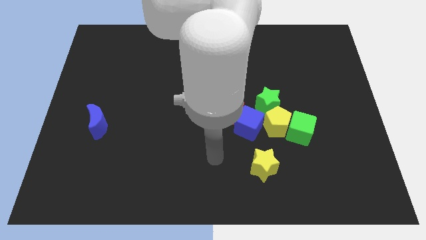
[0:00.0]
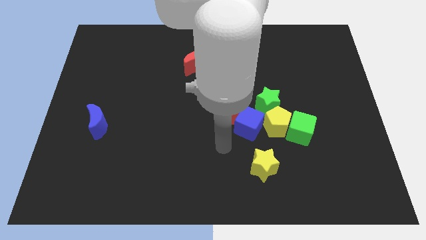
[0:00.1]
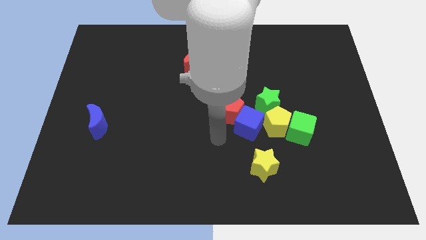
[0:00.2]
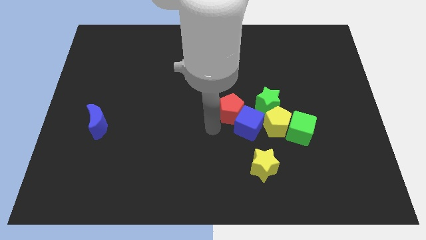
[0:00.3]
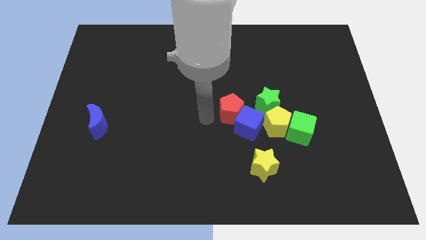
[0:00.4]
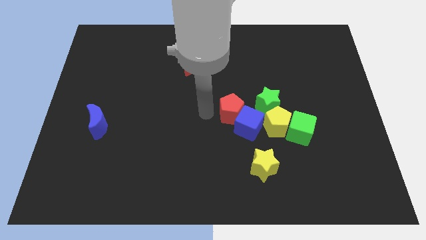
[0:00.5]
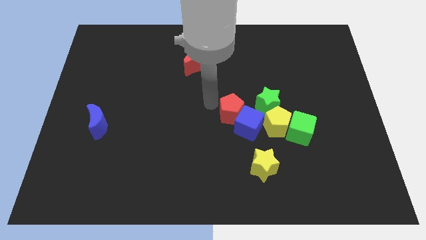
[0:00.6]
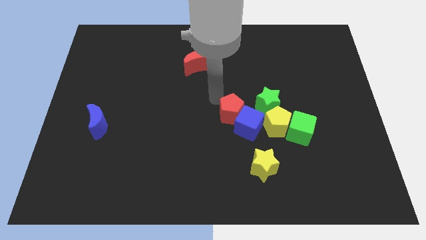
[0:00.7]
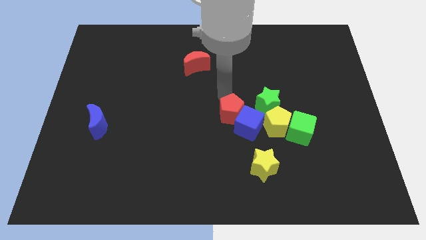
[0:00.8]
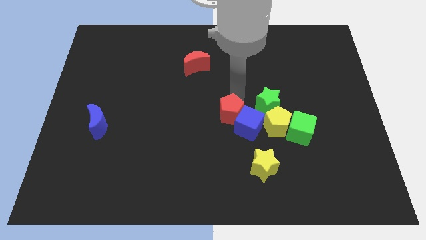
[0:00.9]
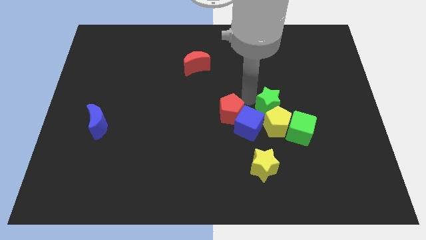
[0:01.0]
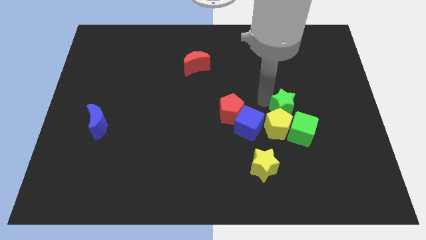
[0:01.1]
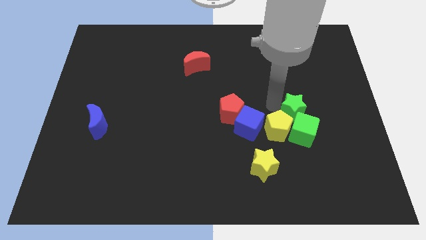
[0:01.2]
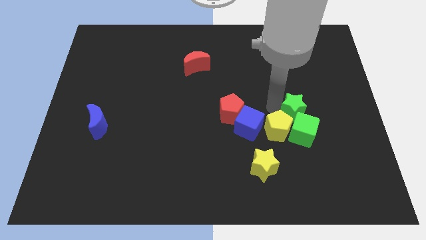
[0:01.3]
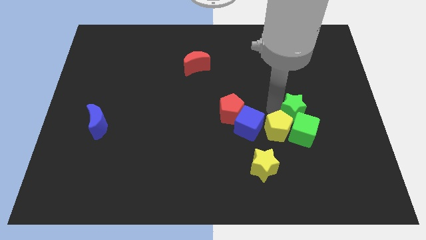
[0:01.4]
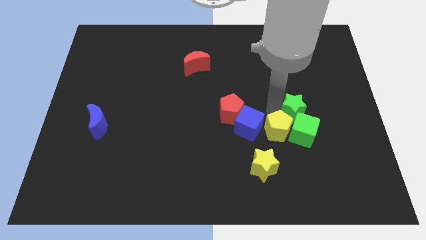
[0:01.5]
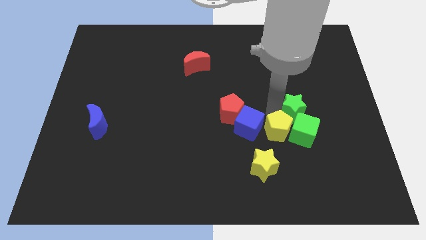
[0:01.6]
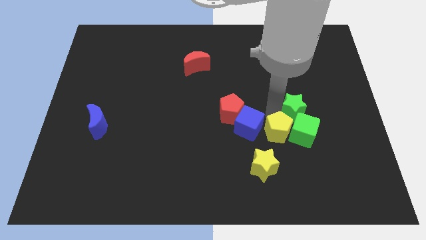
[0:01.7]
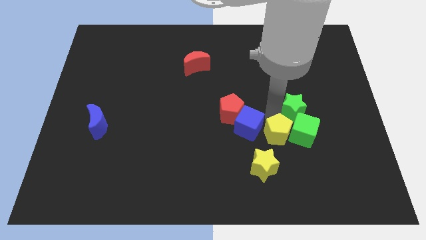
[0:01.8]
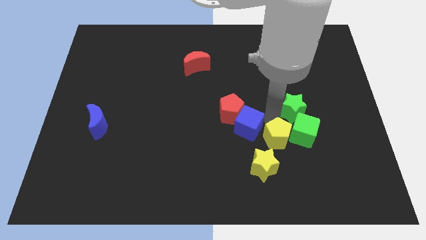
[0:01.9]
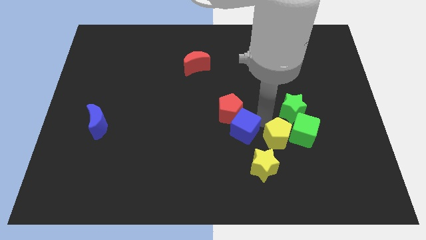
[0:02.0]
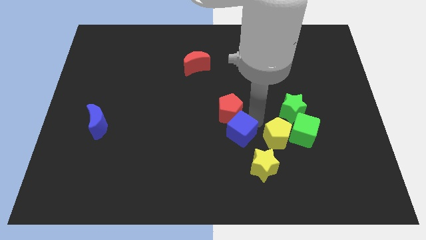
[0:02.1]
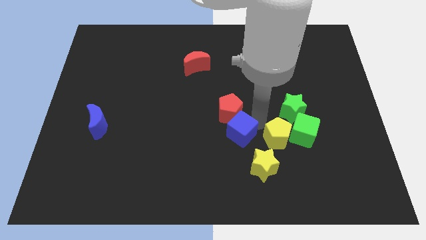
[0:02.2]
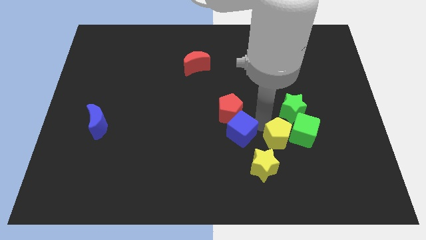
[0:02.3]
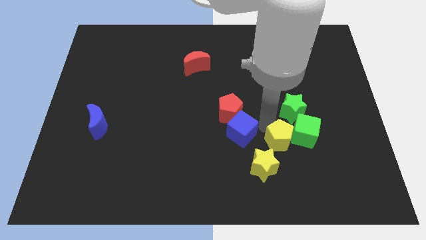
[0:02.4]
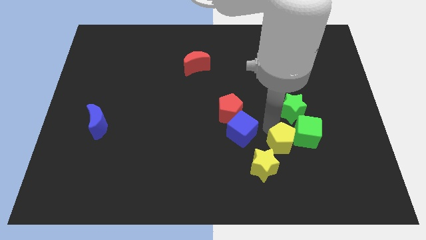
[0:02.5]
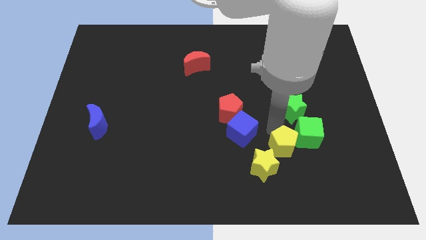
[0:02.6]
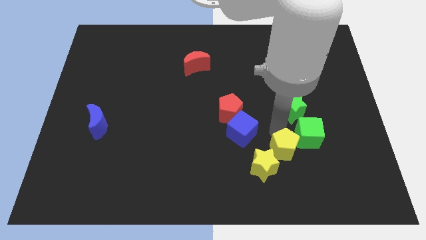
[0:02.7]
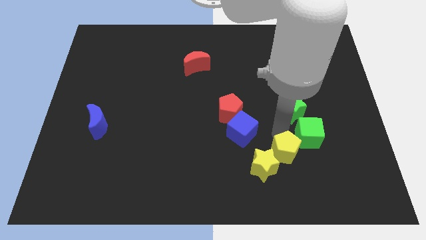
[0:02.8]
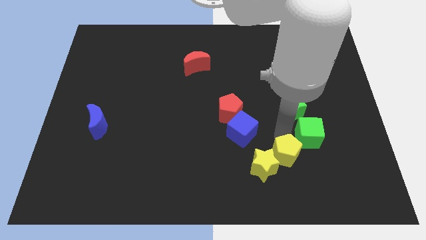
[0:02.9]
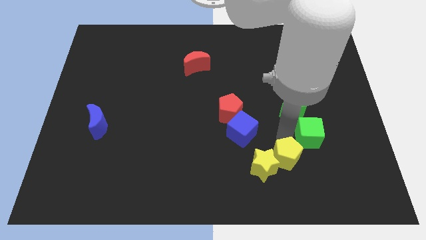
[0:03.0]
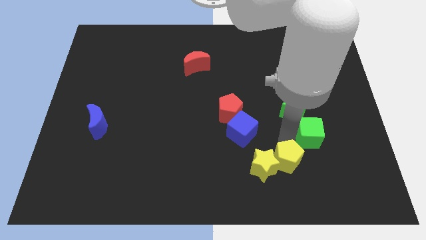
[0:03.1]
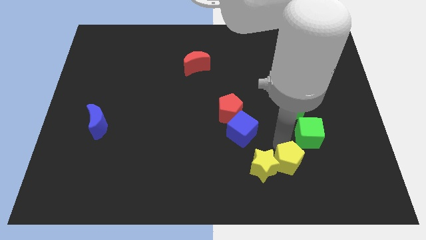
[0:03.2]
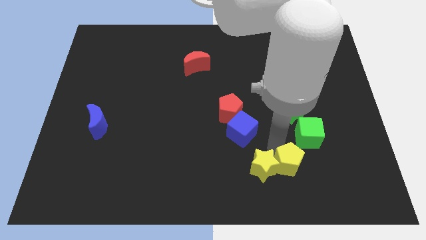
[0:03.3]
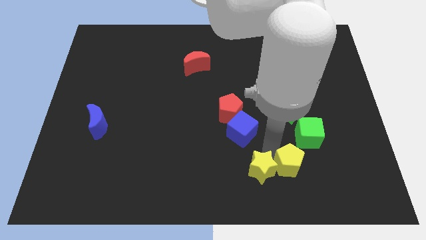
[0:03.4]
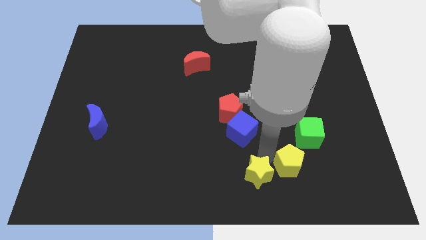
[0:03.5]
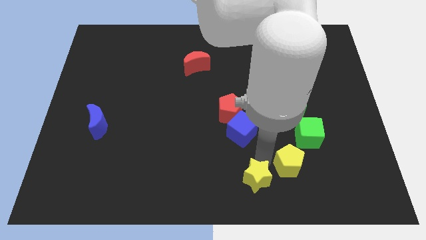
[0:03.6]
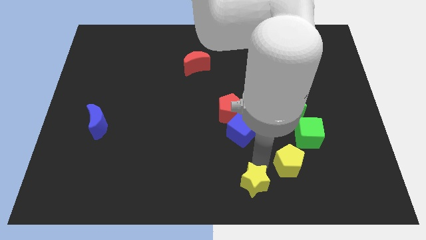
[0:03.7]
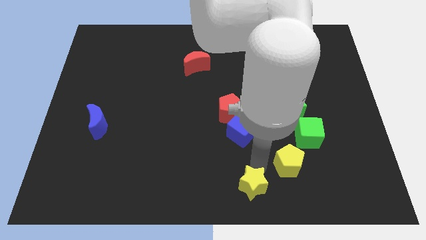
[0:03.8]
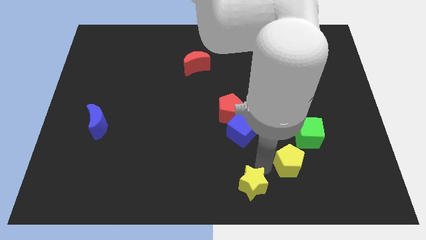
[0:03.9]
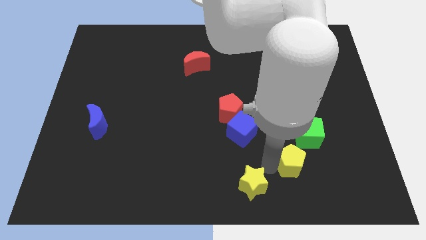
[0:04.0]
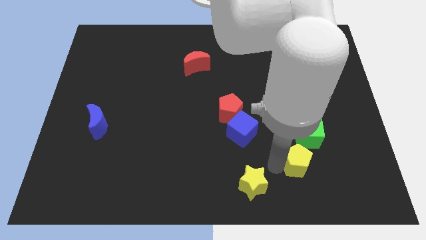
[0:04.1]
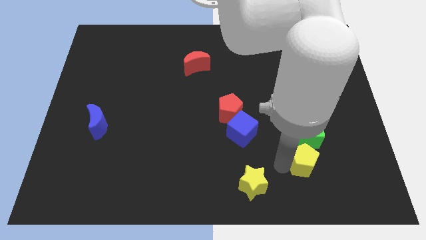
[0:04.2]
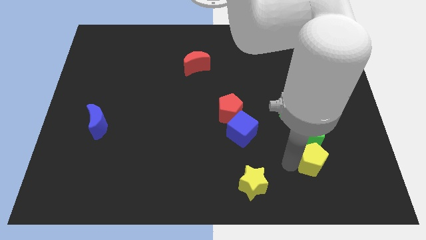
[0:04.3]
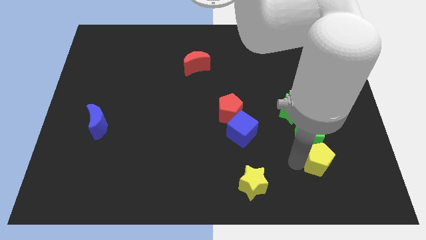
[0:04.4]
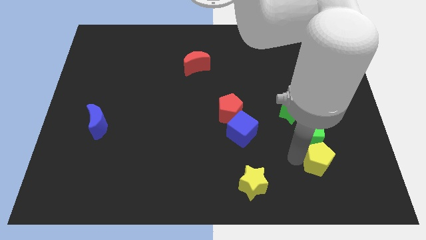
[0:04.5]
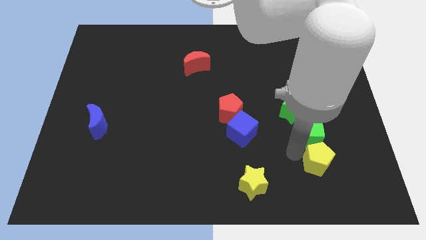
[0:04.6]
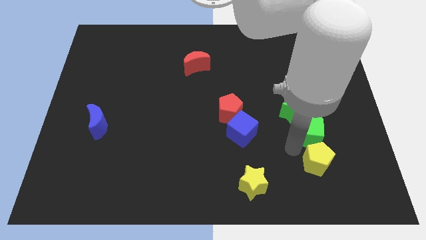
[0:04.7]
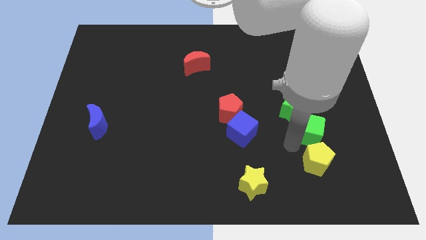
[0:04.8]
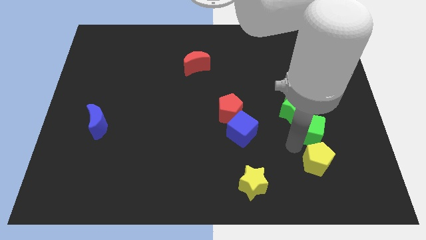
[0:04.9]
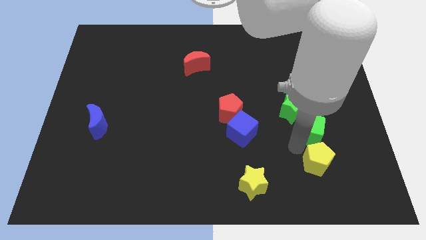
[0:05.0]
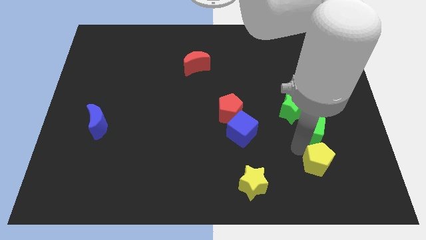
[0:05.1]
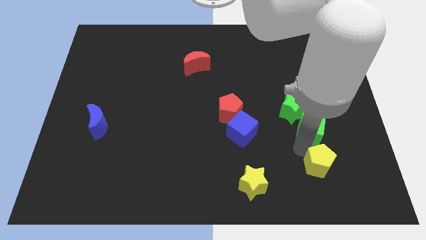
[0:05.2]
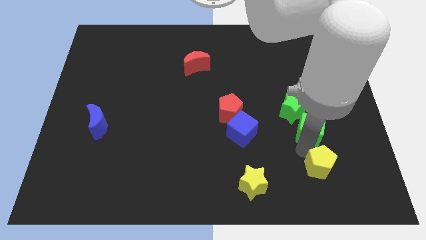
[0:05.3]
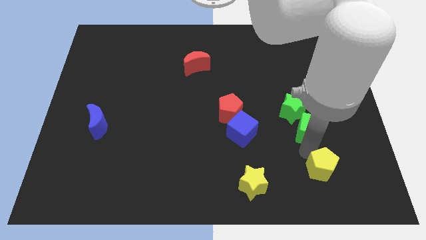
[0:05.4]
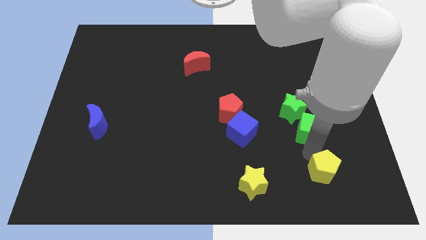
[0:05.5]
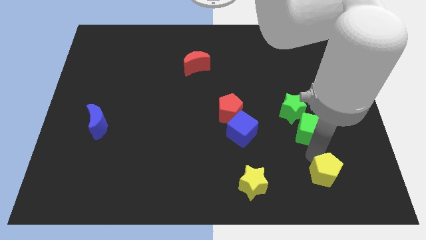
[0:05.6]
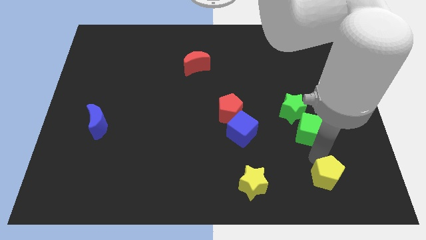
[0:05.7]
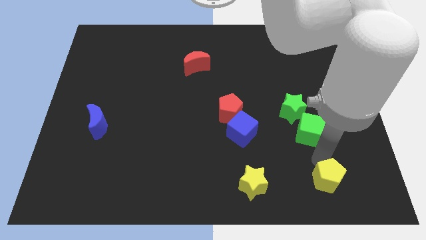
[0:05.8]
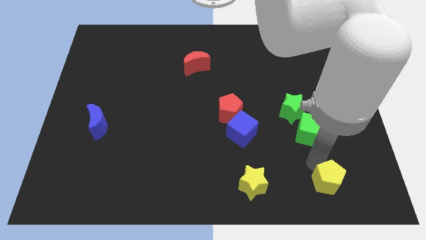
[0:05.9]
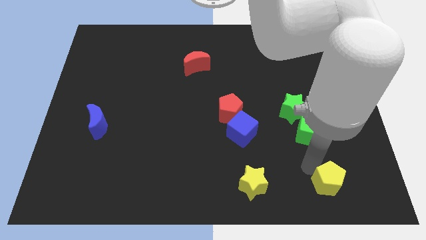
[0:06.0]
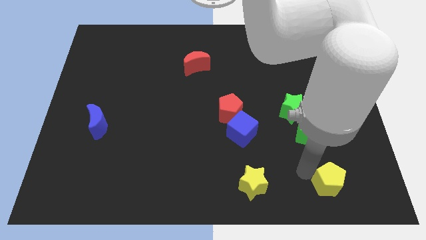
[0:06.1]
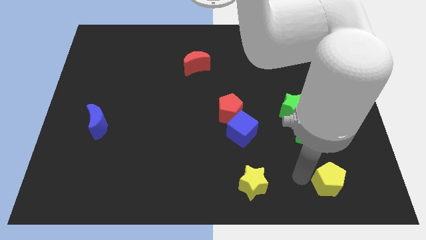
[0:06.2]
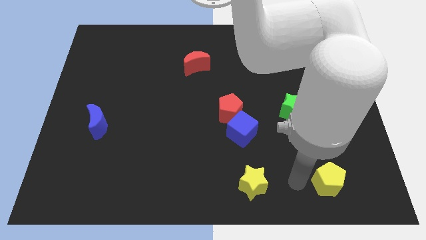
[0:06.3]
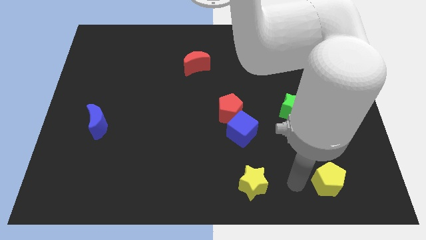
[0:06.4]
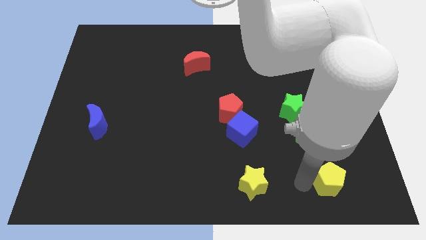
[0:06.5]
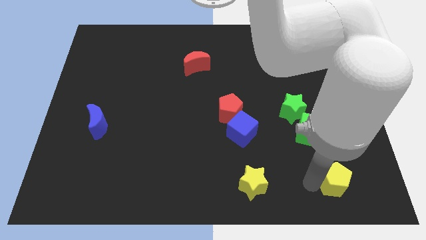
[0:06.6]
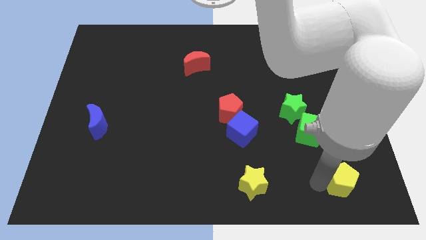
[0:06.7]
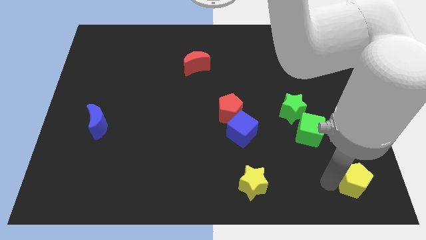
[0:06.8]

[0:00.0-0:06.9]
push the yellow pentagon to the lower right corner
